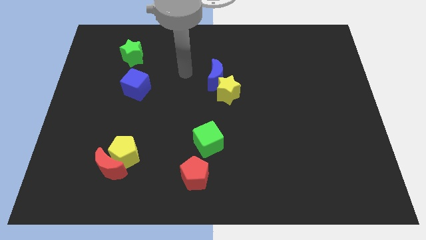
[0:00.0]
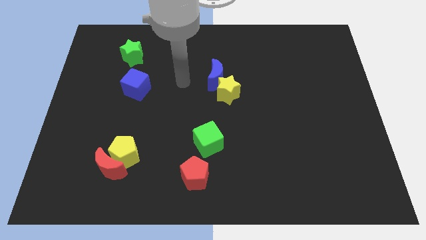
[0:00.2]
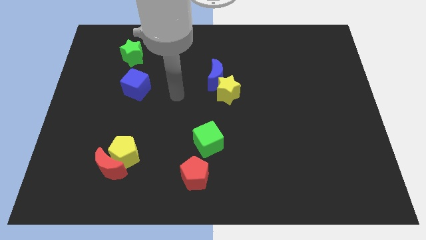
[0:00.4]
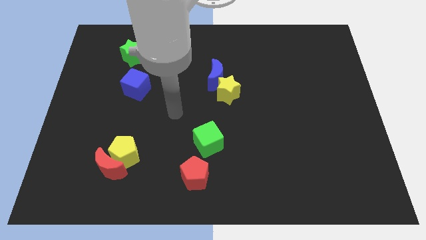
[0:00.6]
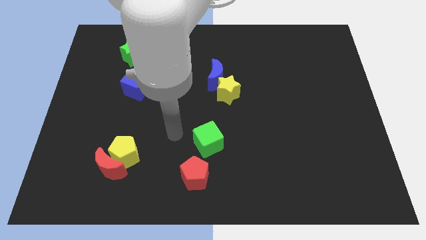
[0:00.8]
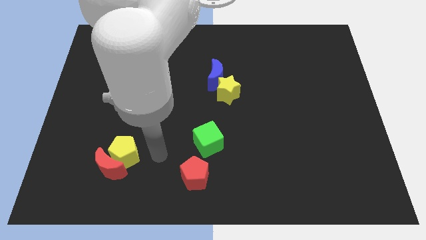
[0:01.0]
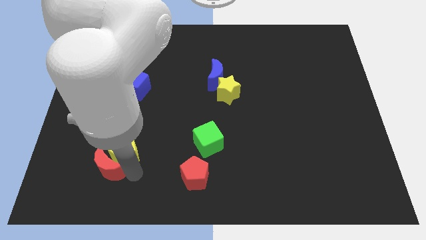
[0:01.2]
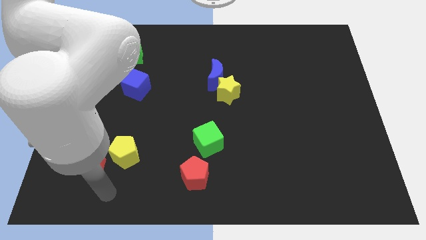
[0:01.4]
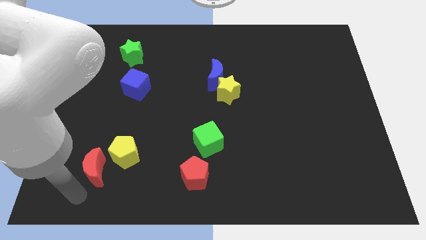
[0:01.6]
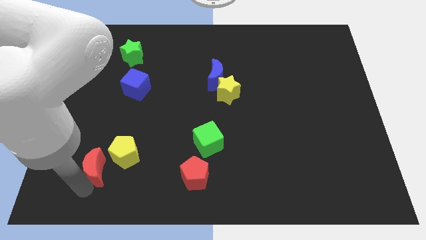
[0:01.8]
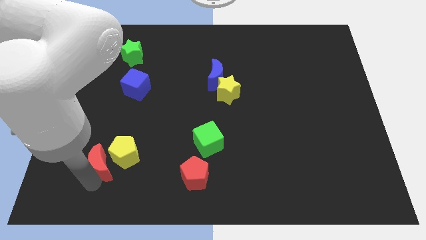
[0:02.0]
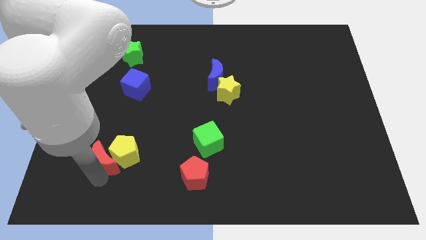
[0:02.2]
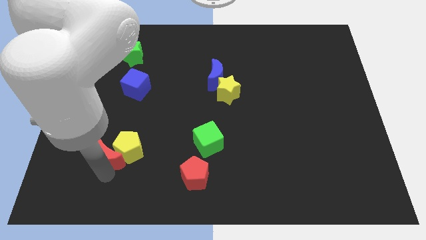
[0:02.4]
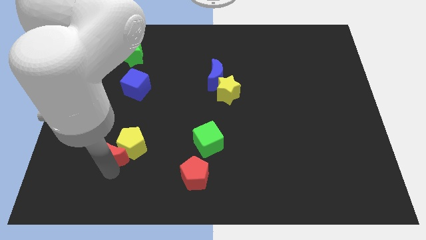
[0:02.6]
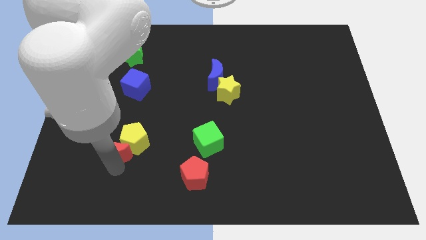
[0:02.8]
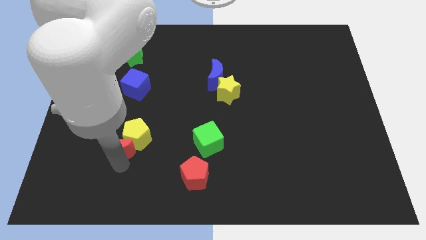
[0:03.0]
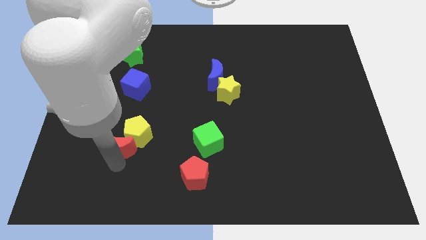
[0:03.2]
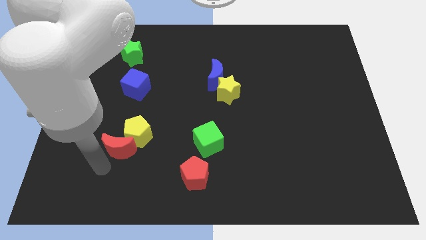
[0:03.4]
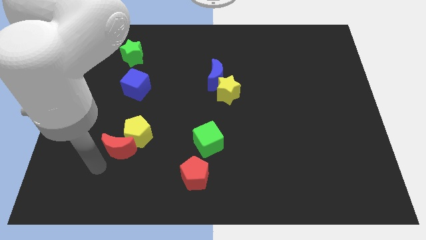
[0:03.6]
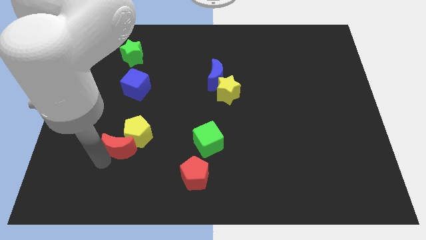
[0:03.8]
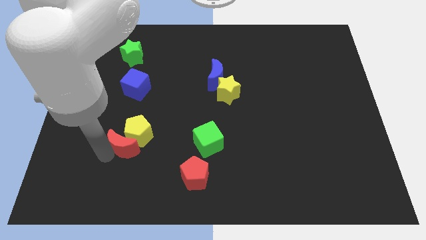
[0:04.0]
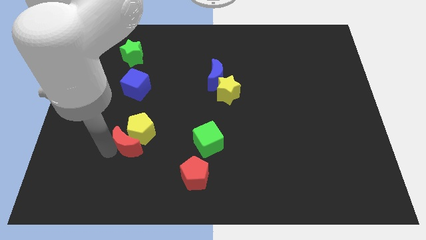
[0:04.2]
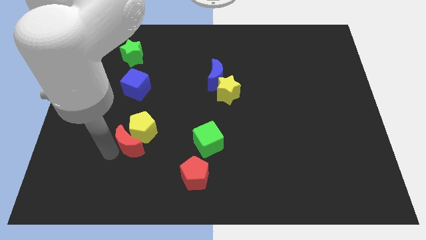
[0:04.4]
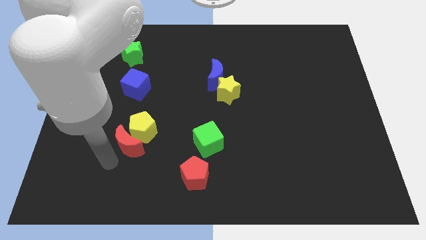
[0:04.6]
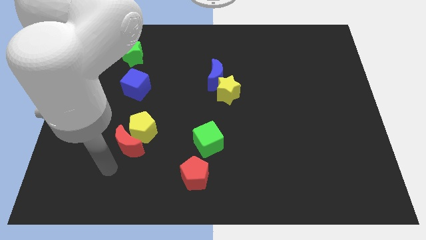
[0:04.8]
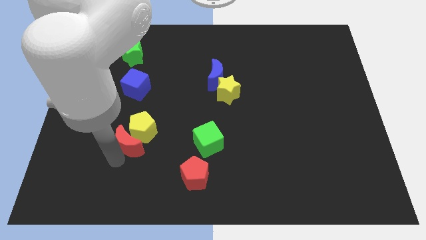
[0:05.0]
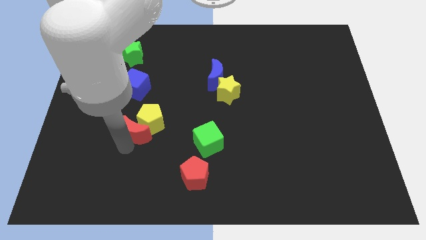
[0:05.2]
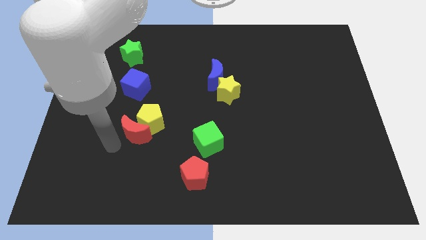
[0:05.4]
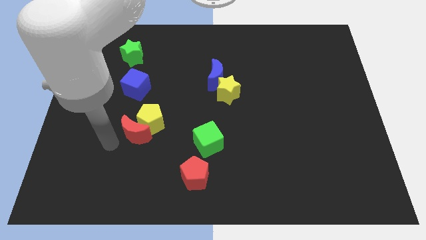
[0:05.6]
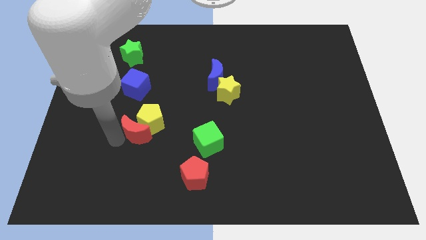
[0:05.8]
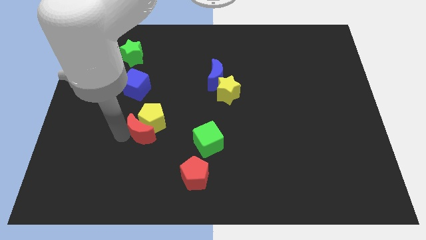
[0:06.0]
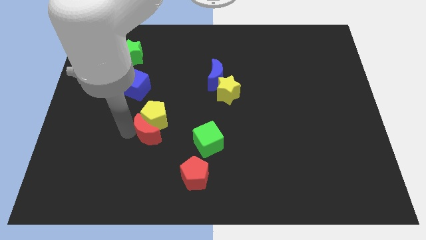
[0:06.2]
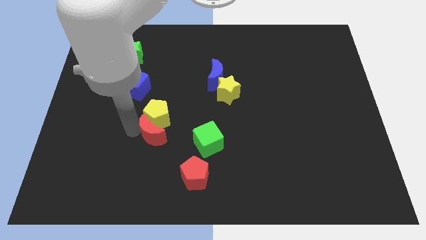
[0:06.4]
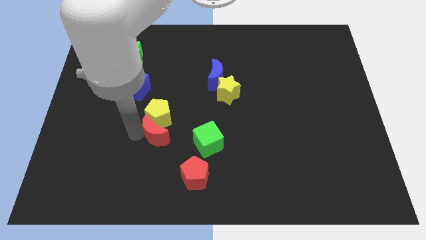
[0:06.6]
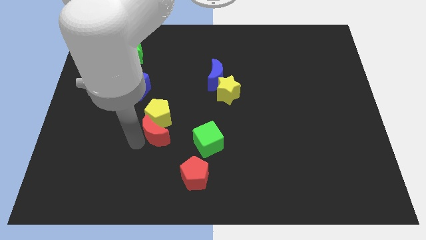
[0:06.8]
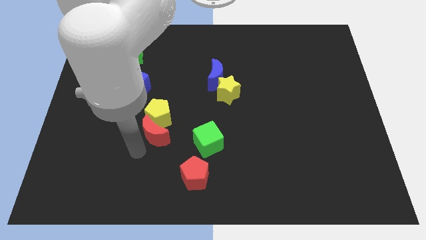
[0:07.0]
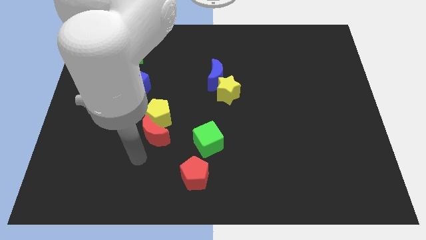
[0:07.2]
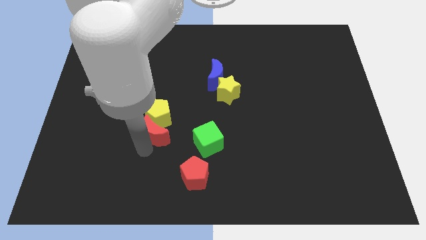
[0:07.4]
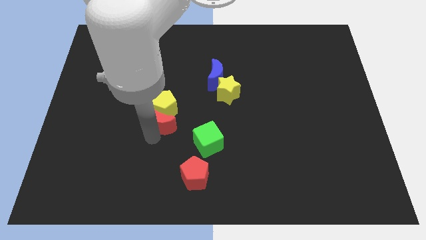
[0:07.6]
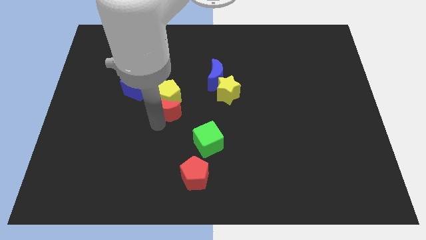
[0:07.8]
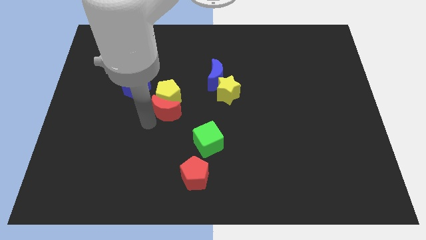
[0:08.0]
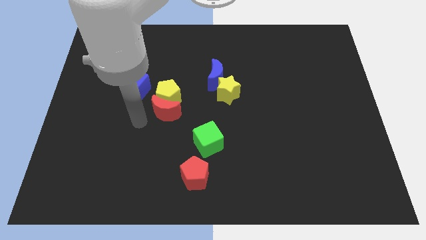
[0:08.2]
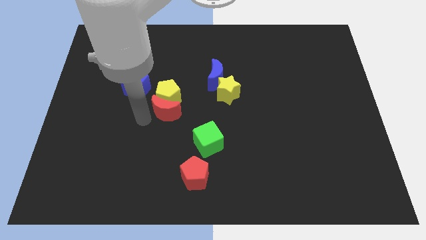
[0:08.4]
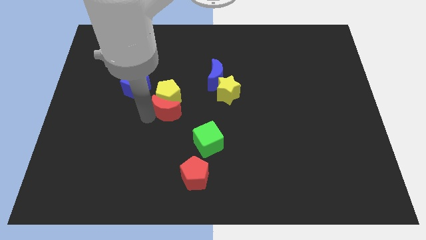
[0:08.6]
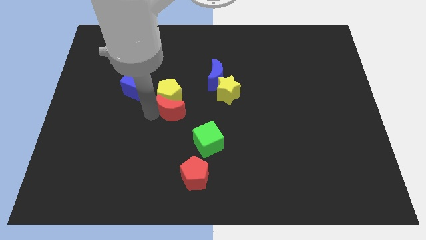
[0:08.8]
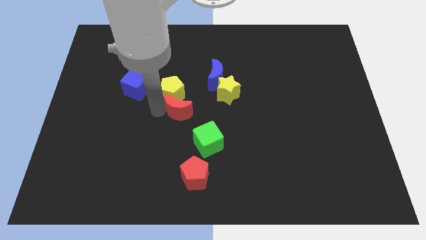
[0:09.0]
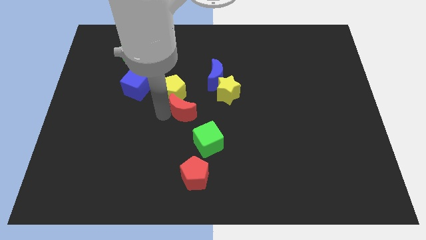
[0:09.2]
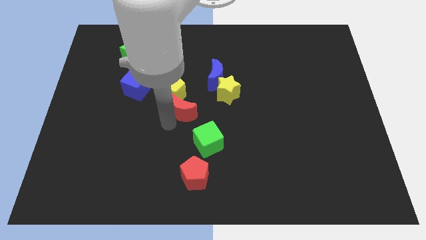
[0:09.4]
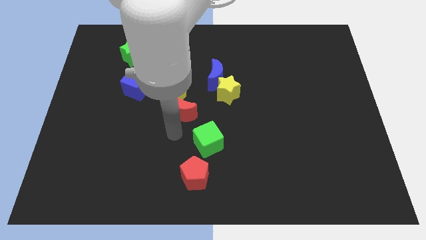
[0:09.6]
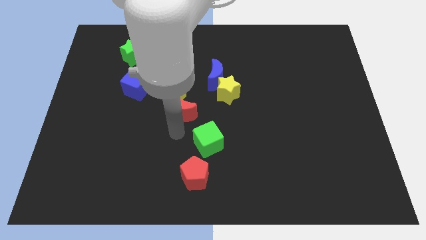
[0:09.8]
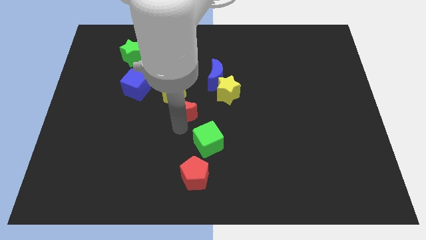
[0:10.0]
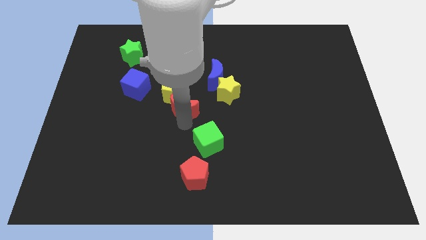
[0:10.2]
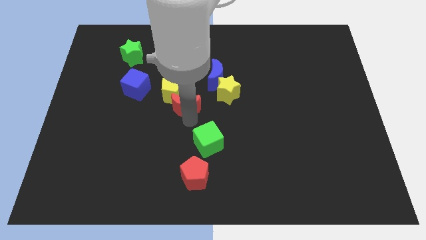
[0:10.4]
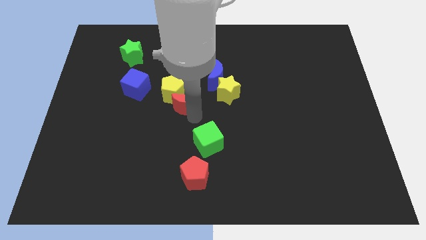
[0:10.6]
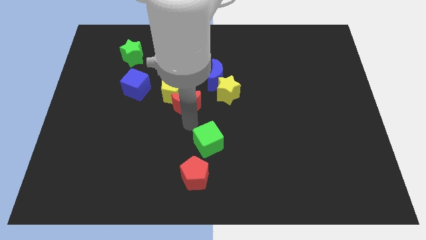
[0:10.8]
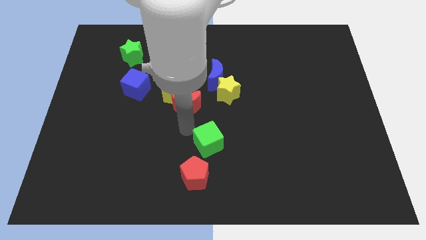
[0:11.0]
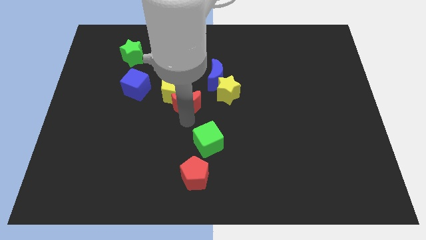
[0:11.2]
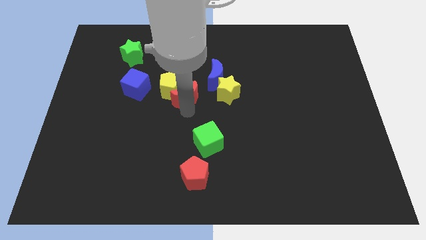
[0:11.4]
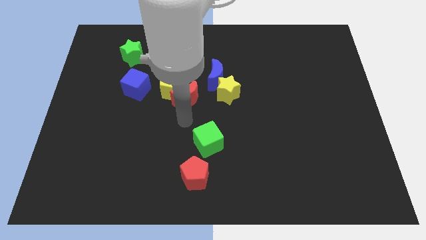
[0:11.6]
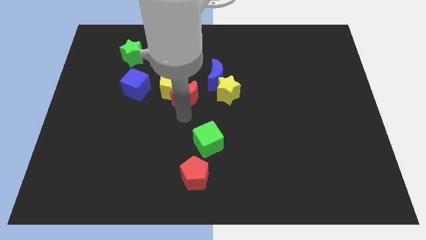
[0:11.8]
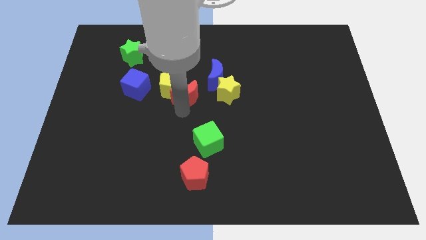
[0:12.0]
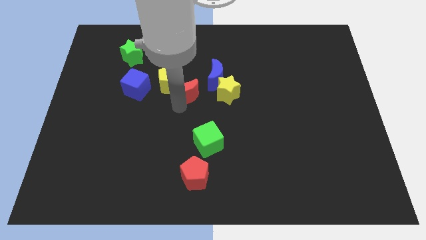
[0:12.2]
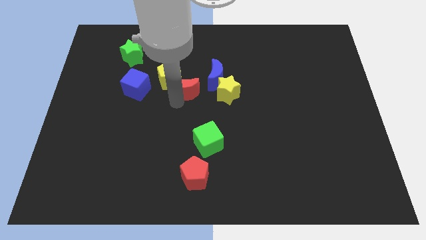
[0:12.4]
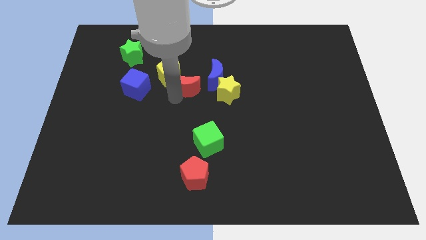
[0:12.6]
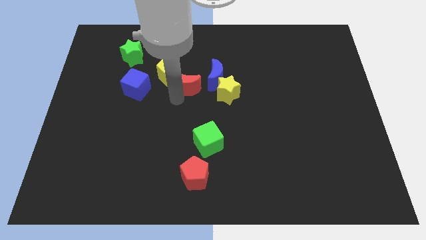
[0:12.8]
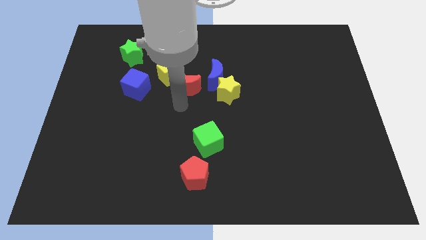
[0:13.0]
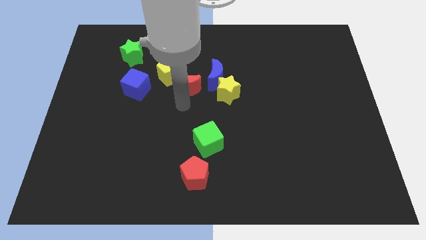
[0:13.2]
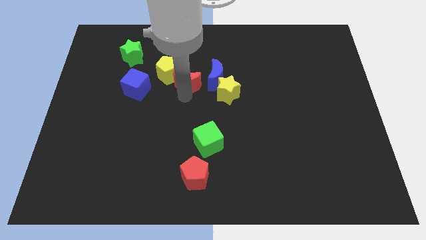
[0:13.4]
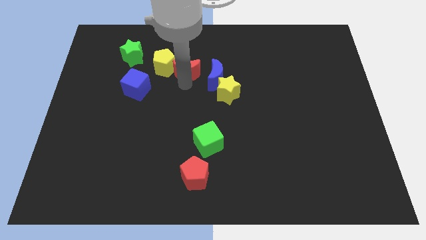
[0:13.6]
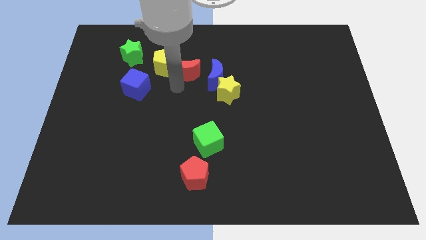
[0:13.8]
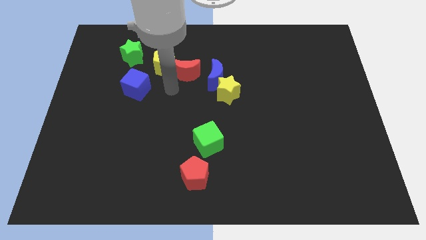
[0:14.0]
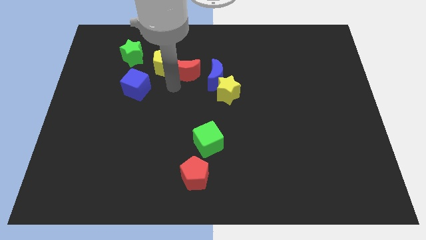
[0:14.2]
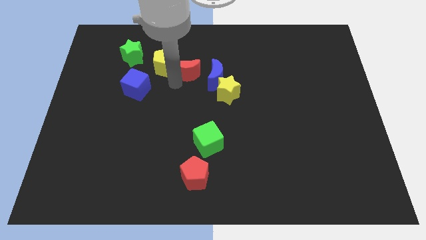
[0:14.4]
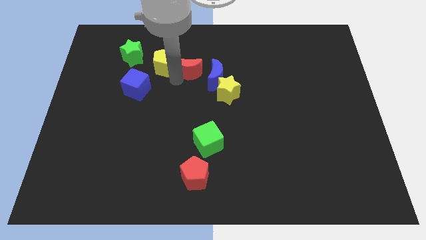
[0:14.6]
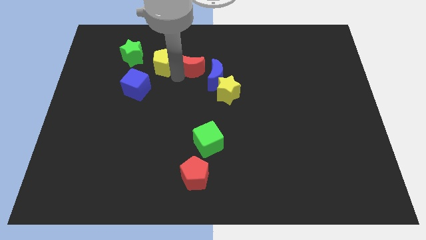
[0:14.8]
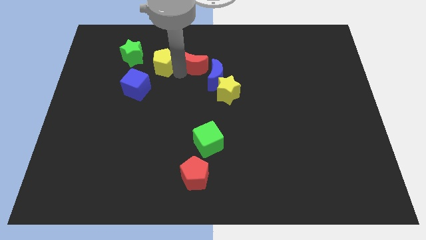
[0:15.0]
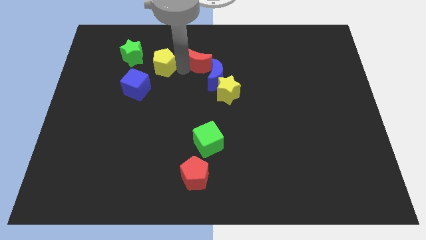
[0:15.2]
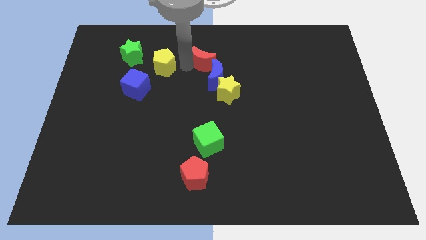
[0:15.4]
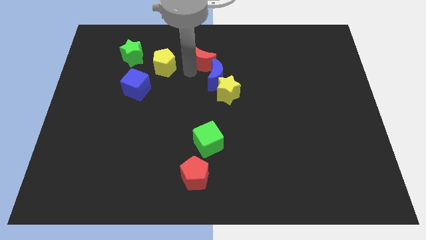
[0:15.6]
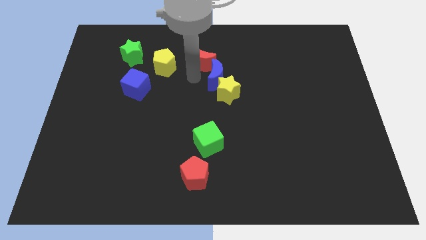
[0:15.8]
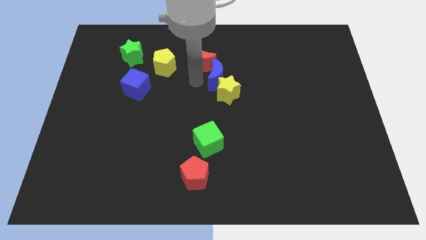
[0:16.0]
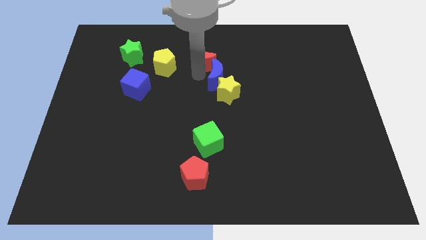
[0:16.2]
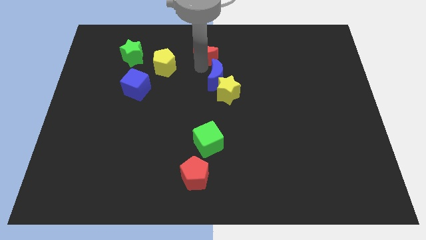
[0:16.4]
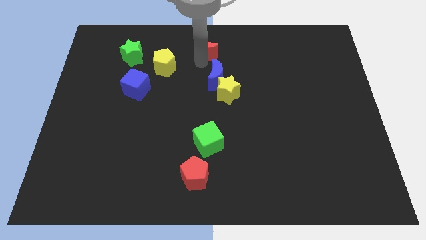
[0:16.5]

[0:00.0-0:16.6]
put the red moon to the top side
